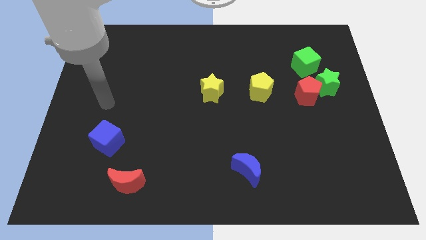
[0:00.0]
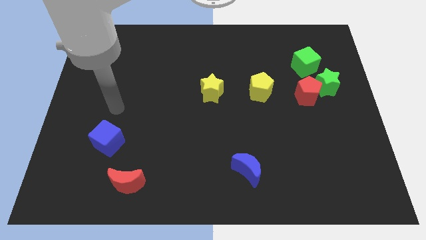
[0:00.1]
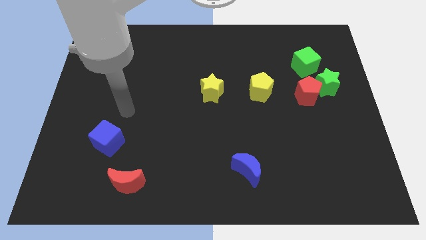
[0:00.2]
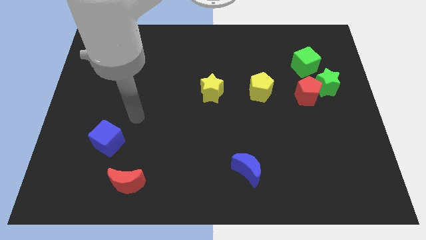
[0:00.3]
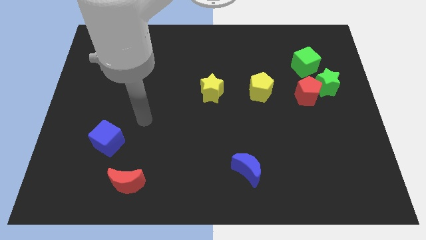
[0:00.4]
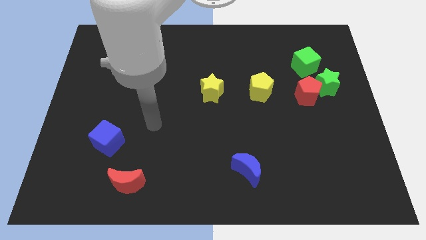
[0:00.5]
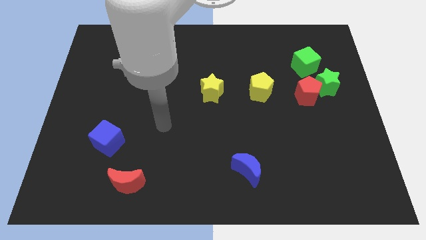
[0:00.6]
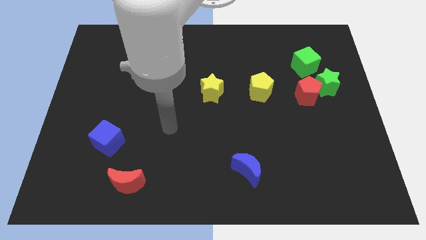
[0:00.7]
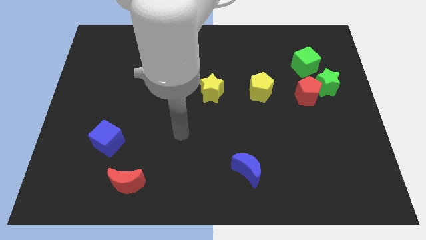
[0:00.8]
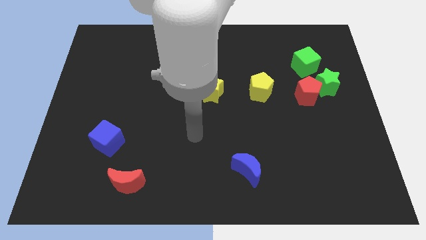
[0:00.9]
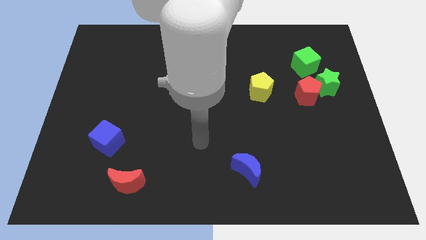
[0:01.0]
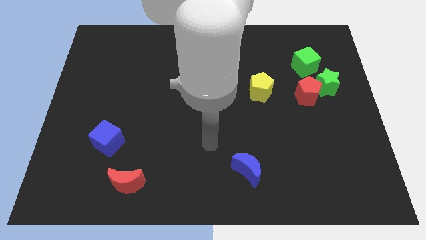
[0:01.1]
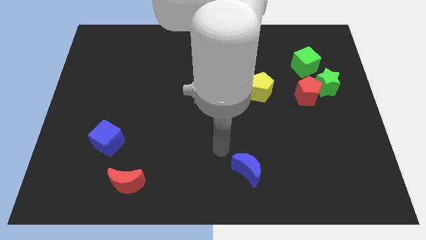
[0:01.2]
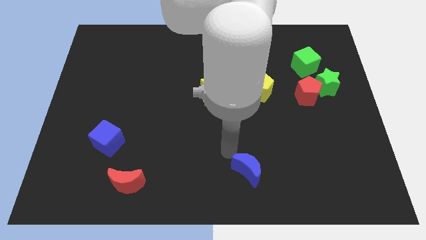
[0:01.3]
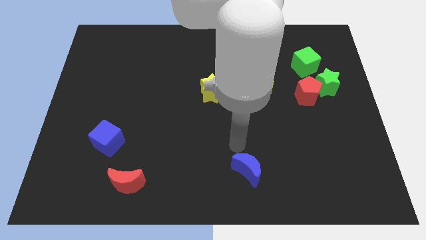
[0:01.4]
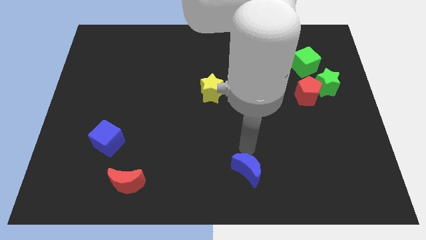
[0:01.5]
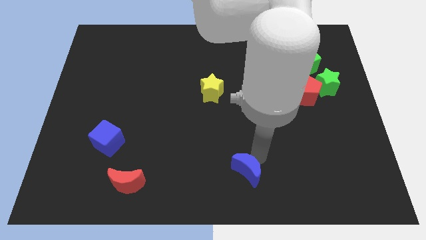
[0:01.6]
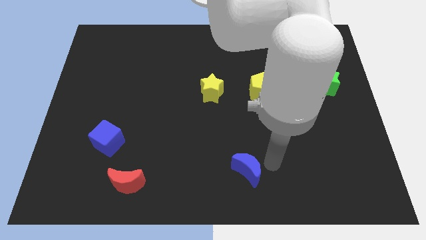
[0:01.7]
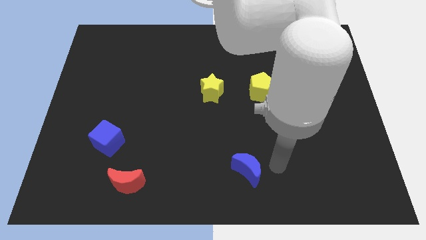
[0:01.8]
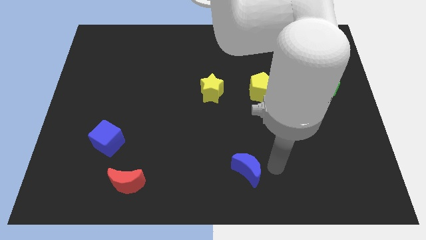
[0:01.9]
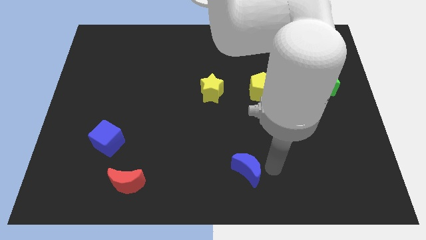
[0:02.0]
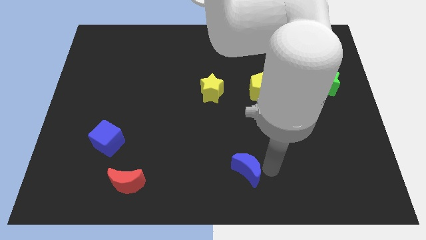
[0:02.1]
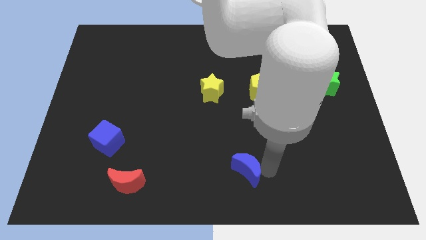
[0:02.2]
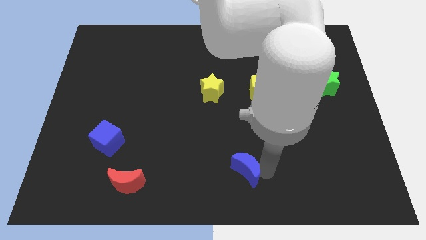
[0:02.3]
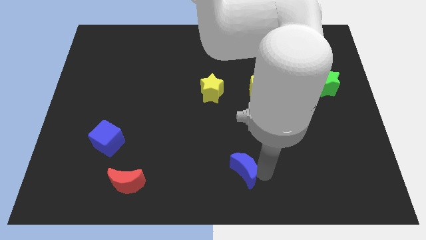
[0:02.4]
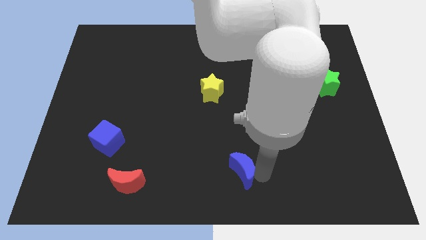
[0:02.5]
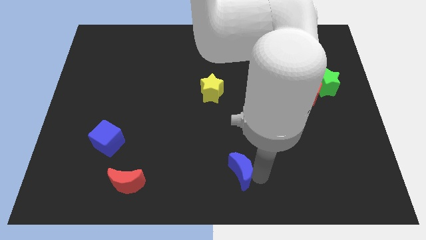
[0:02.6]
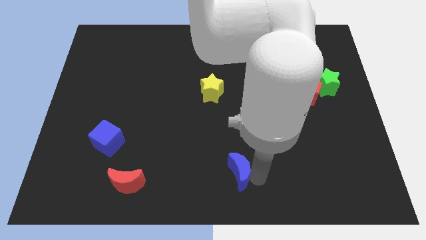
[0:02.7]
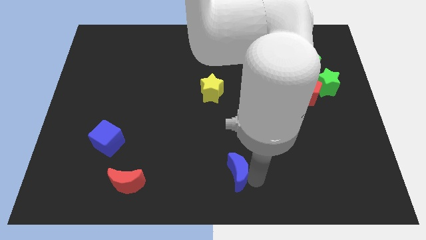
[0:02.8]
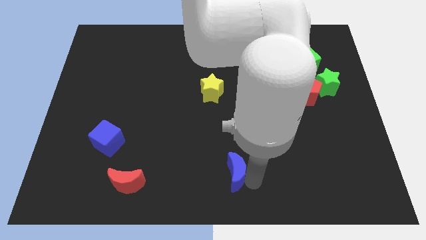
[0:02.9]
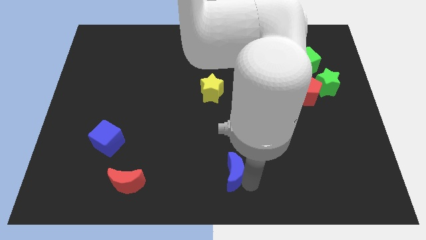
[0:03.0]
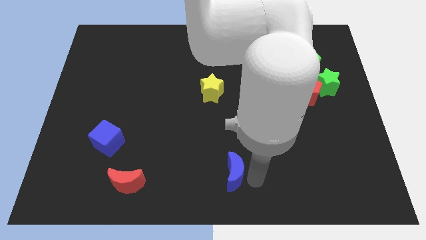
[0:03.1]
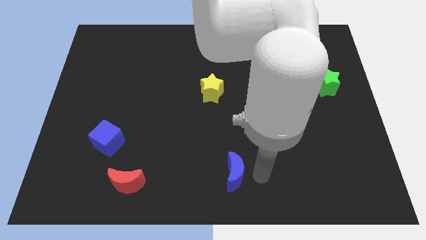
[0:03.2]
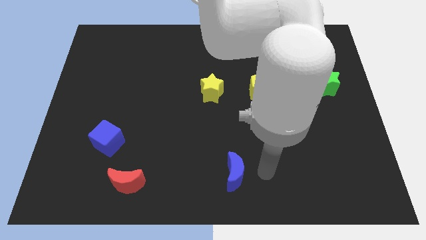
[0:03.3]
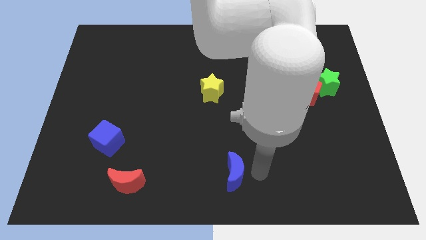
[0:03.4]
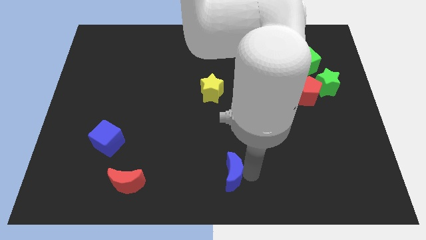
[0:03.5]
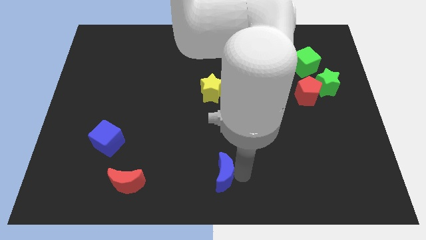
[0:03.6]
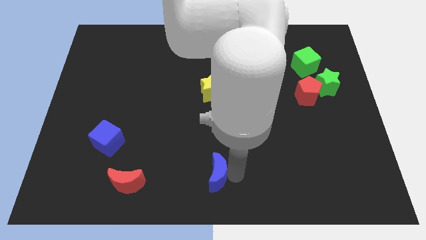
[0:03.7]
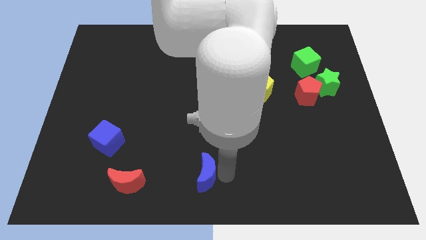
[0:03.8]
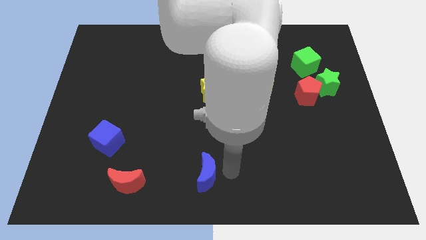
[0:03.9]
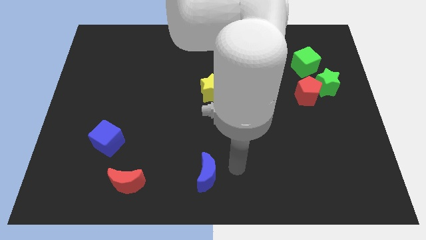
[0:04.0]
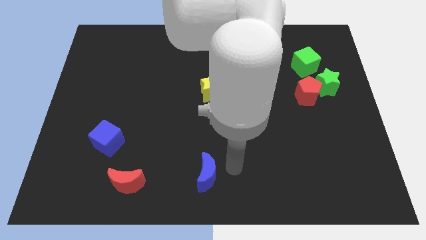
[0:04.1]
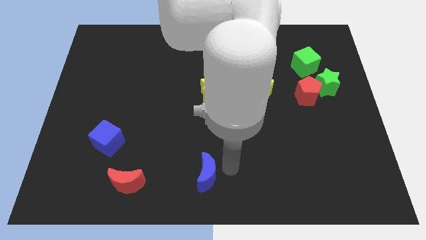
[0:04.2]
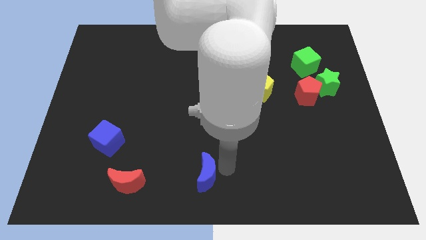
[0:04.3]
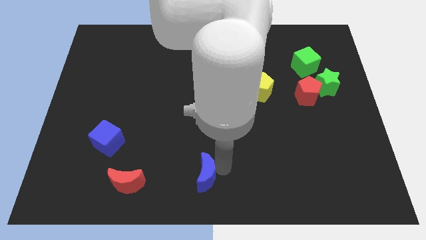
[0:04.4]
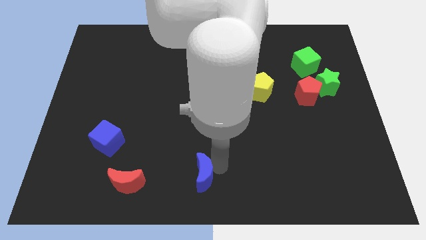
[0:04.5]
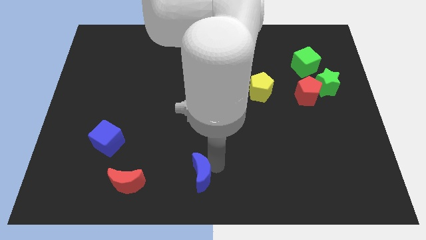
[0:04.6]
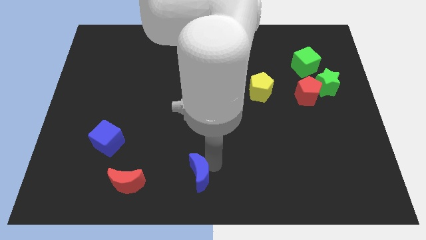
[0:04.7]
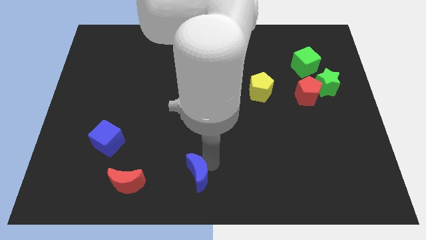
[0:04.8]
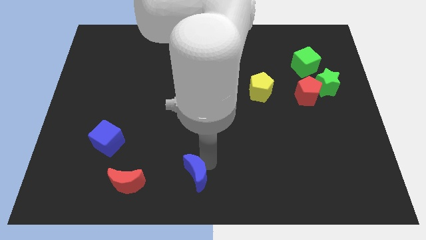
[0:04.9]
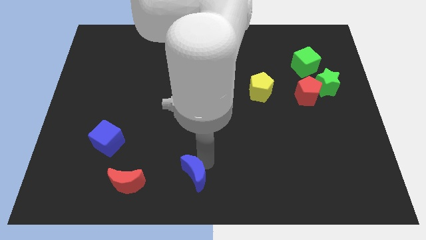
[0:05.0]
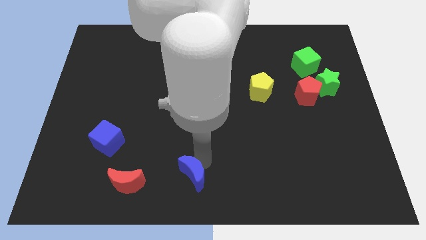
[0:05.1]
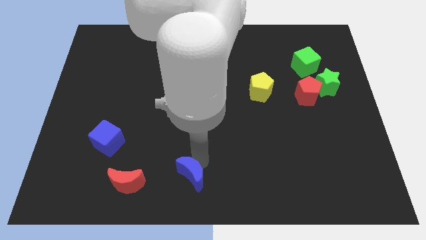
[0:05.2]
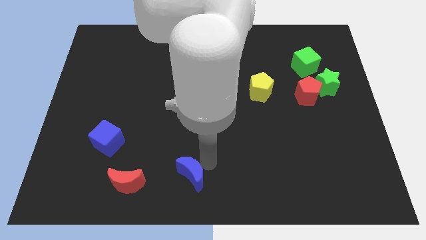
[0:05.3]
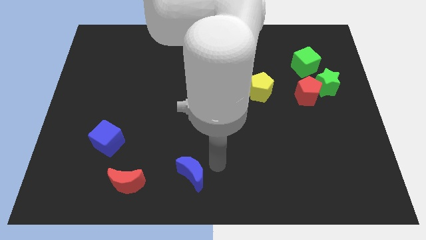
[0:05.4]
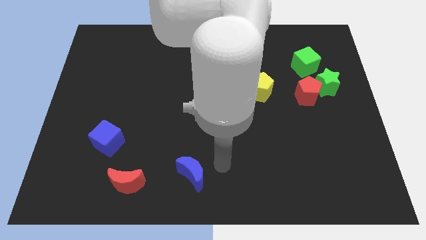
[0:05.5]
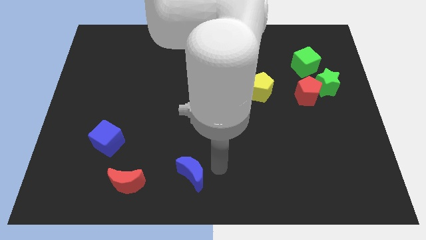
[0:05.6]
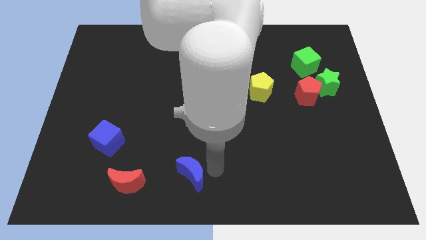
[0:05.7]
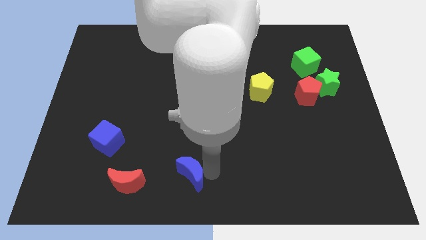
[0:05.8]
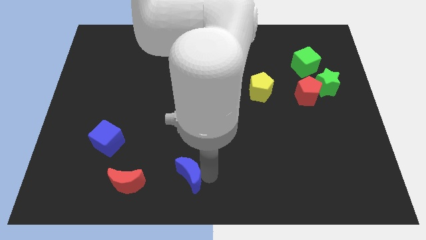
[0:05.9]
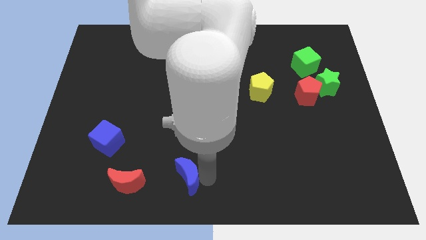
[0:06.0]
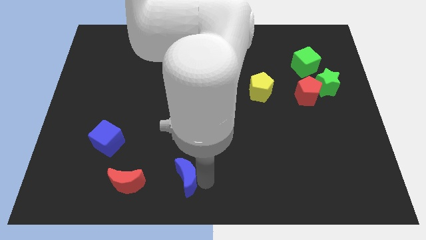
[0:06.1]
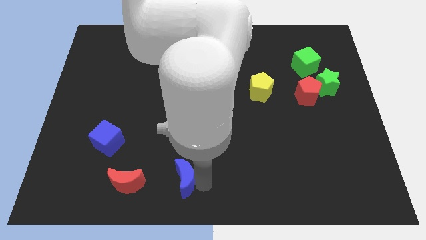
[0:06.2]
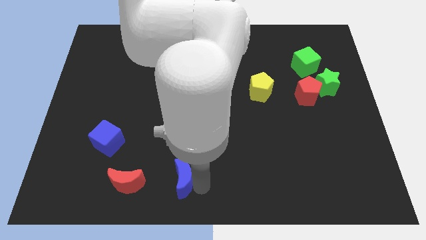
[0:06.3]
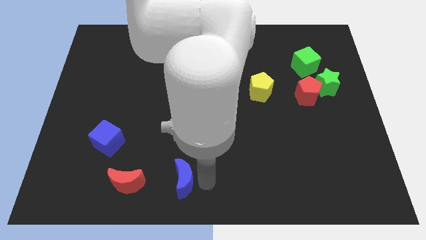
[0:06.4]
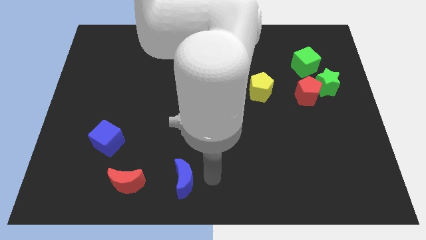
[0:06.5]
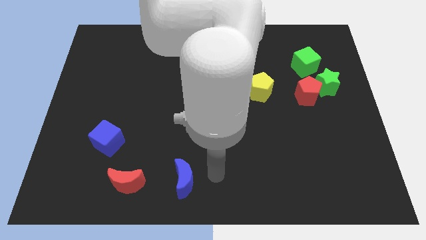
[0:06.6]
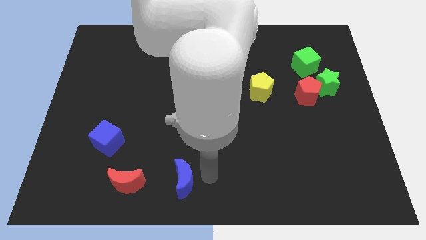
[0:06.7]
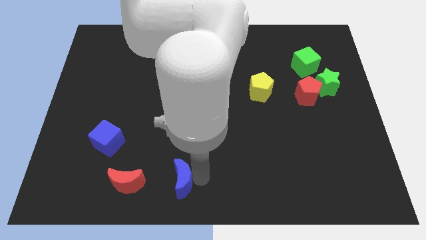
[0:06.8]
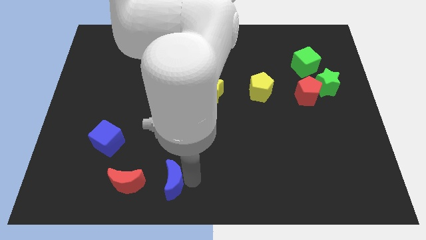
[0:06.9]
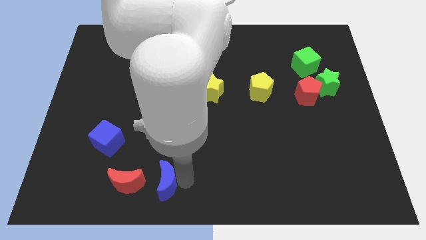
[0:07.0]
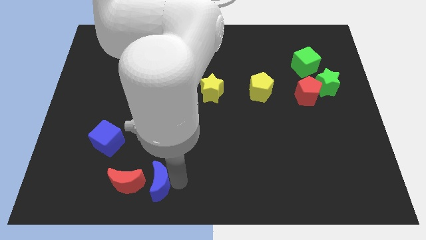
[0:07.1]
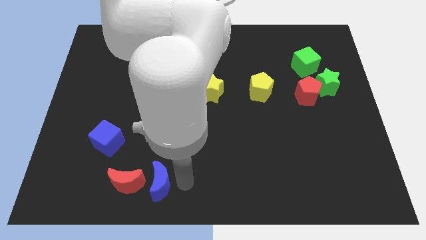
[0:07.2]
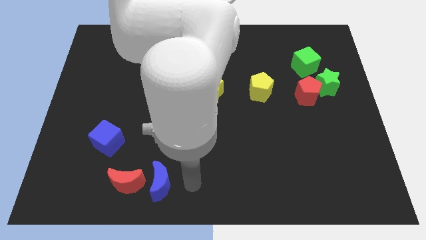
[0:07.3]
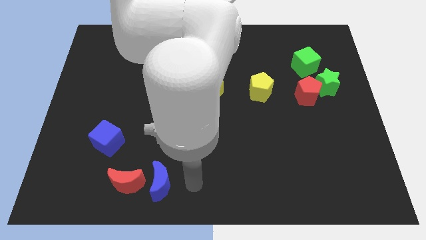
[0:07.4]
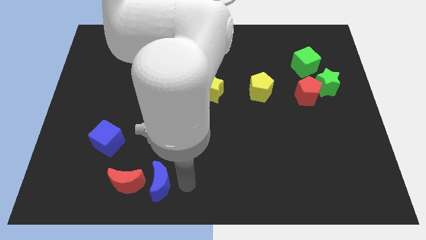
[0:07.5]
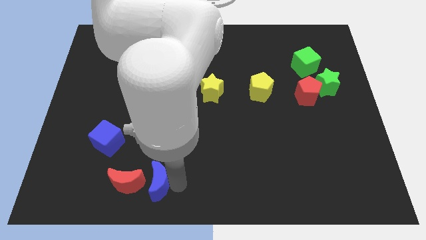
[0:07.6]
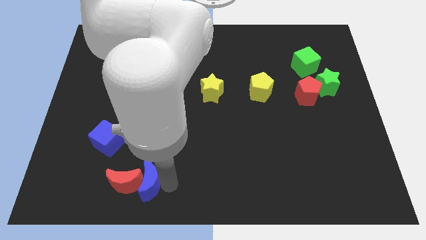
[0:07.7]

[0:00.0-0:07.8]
push the blue moon to the red moon
